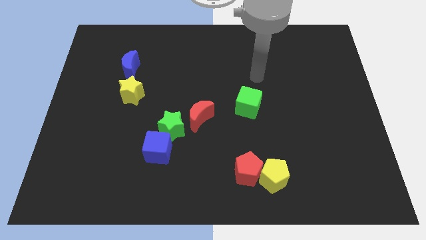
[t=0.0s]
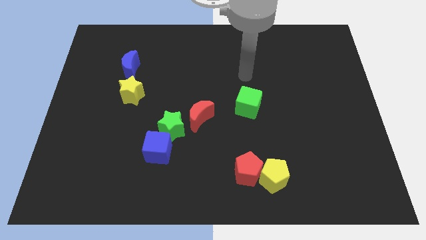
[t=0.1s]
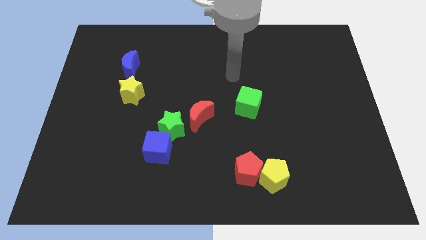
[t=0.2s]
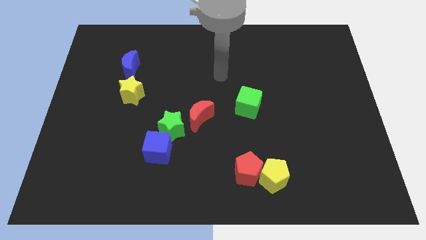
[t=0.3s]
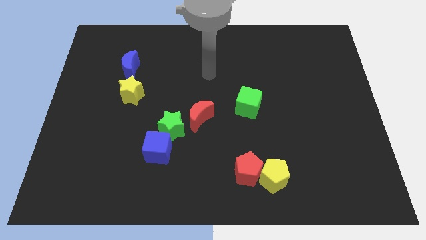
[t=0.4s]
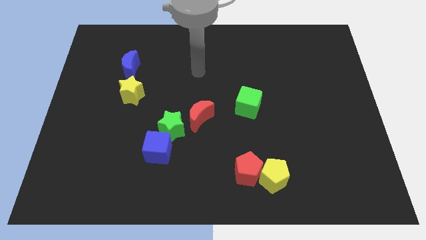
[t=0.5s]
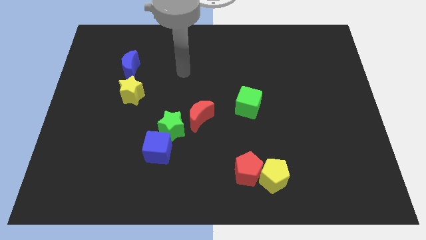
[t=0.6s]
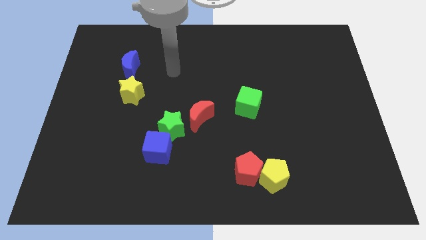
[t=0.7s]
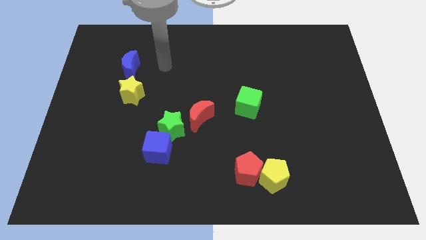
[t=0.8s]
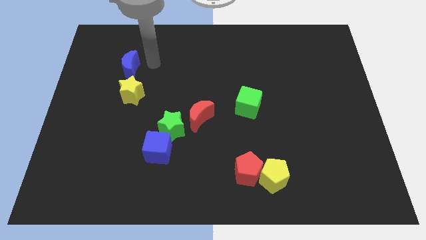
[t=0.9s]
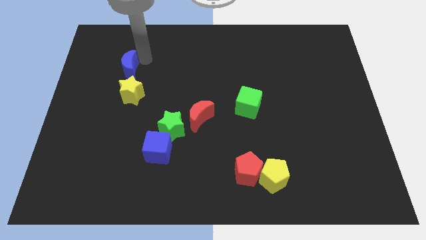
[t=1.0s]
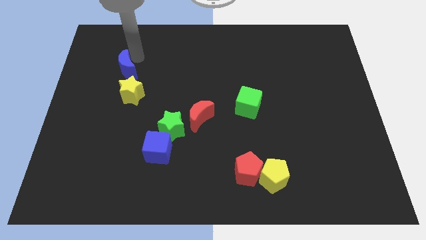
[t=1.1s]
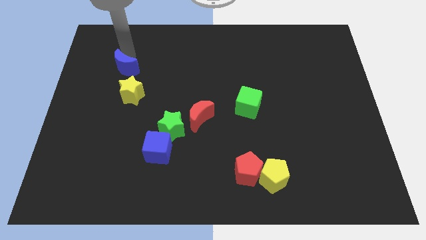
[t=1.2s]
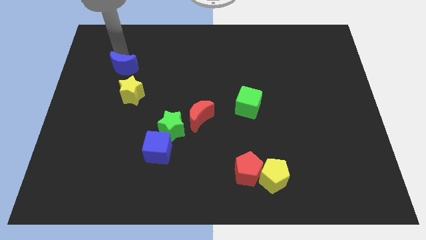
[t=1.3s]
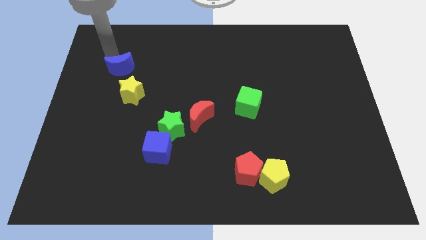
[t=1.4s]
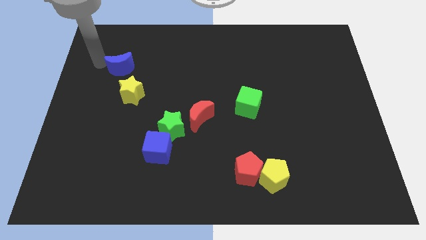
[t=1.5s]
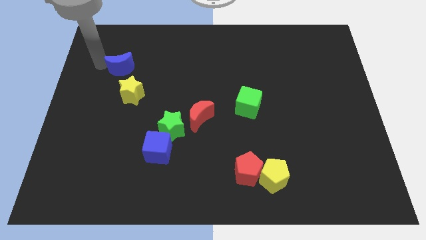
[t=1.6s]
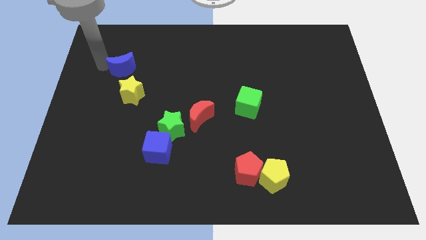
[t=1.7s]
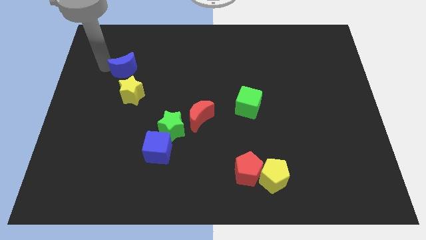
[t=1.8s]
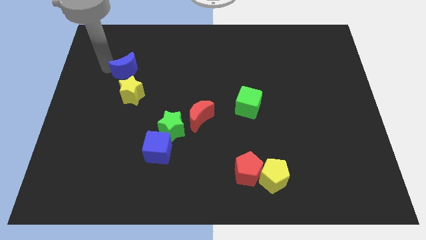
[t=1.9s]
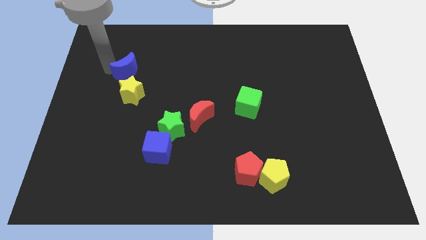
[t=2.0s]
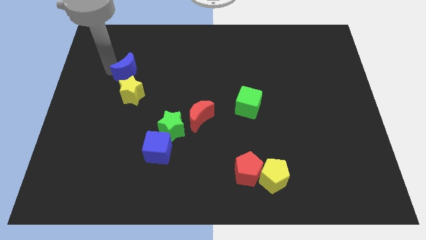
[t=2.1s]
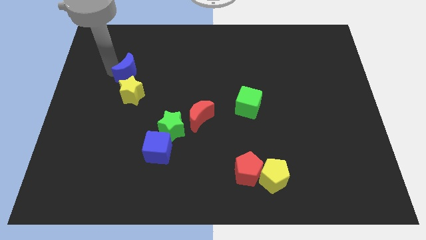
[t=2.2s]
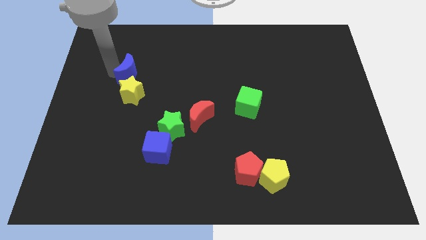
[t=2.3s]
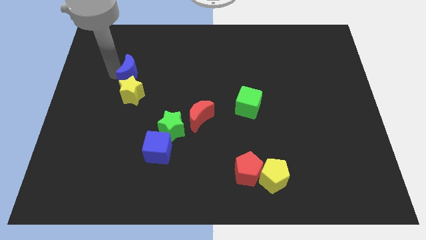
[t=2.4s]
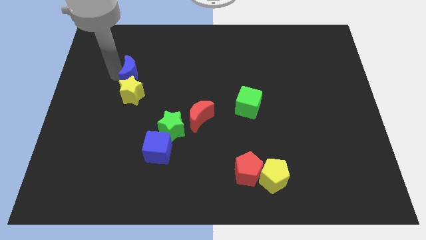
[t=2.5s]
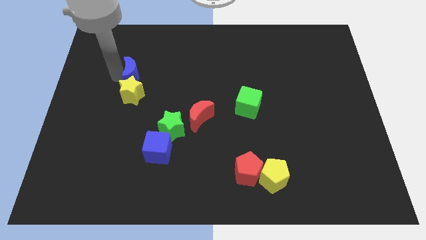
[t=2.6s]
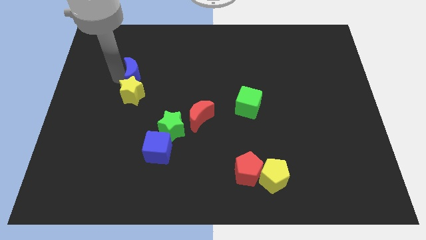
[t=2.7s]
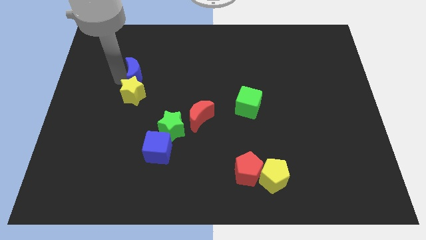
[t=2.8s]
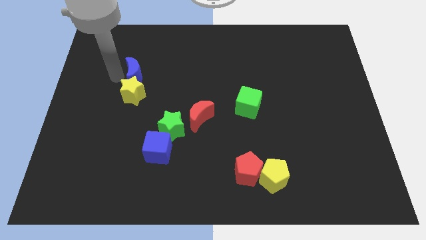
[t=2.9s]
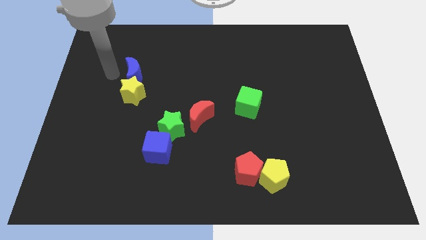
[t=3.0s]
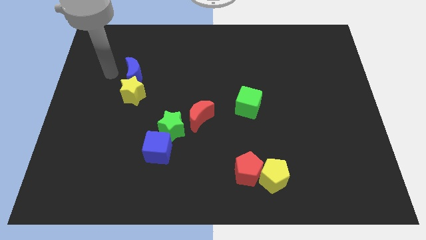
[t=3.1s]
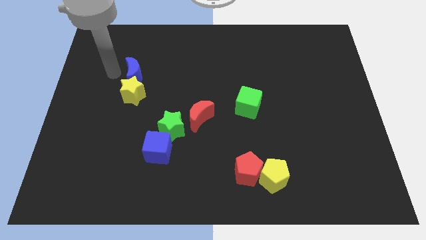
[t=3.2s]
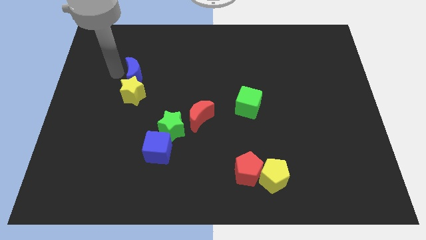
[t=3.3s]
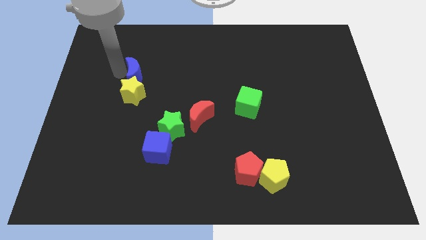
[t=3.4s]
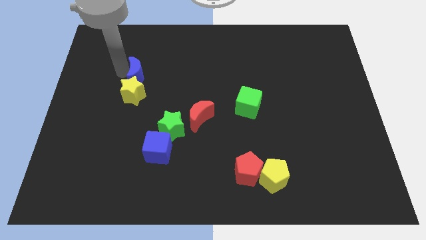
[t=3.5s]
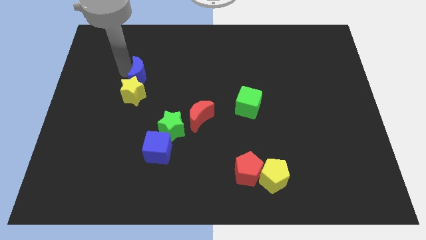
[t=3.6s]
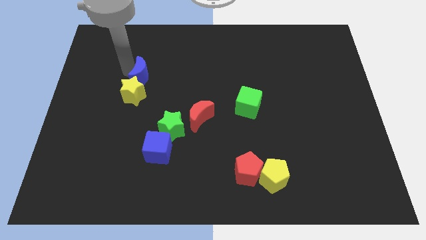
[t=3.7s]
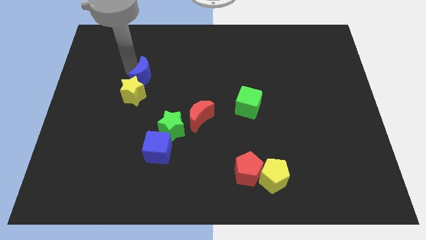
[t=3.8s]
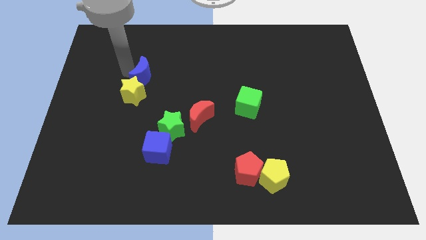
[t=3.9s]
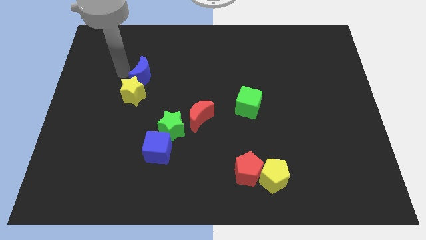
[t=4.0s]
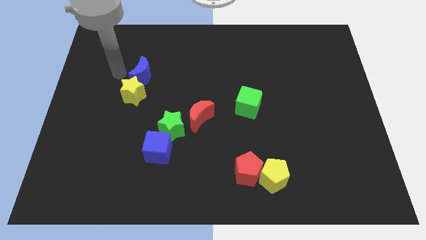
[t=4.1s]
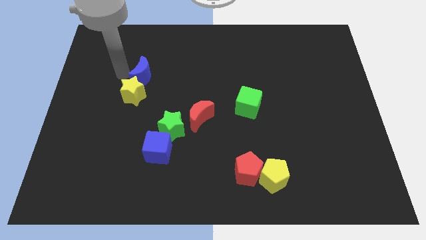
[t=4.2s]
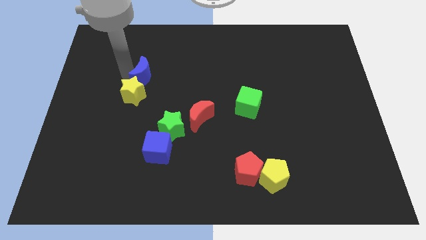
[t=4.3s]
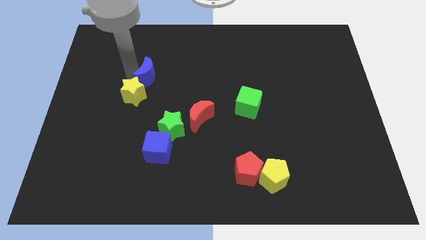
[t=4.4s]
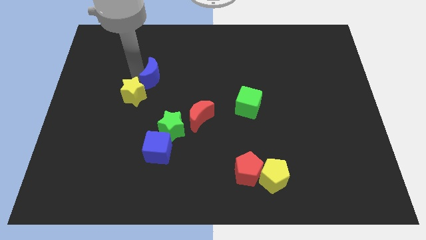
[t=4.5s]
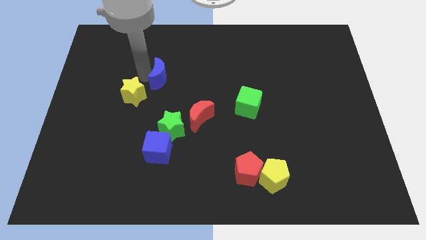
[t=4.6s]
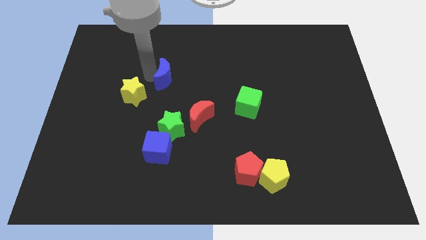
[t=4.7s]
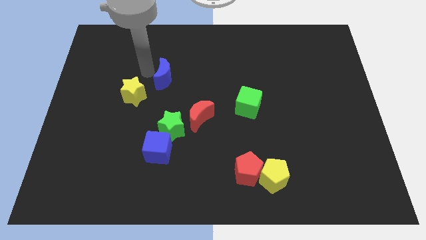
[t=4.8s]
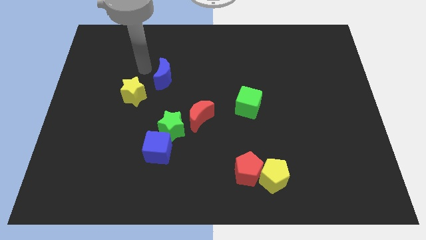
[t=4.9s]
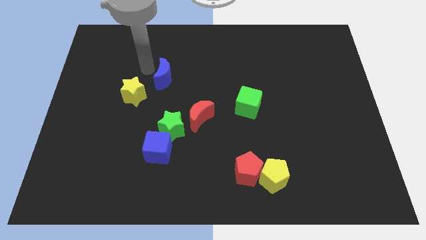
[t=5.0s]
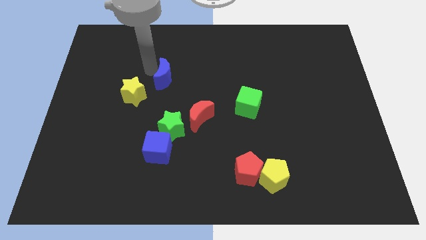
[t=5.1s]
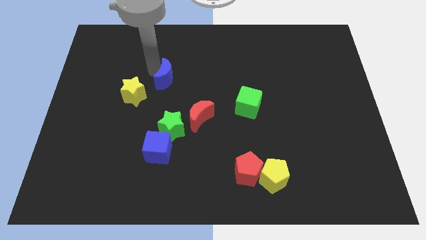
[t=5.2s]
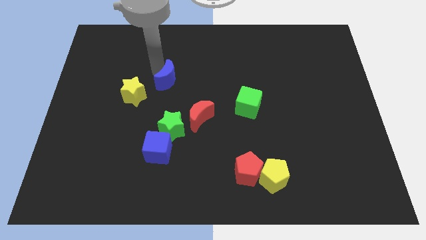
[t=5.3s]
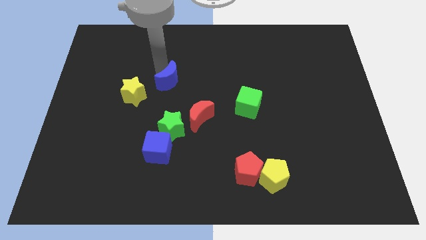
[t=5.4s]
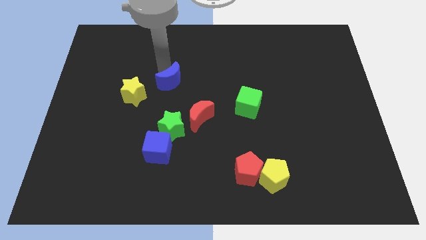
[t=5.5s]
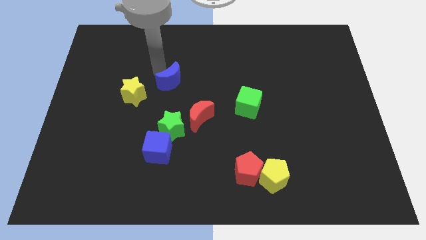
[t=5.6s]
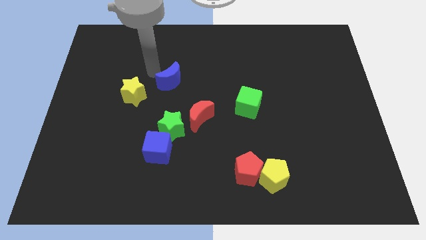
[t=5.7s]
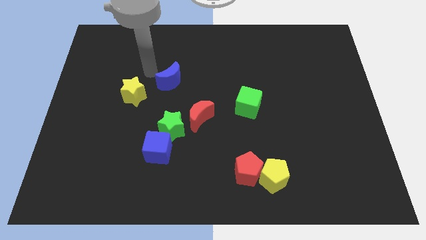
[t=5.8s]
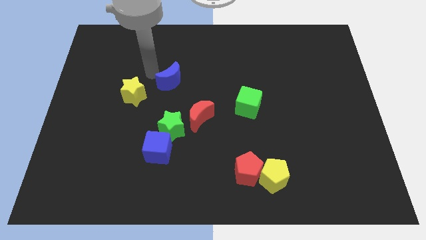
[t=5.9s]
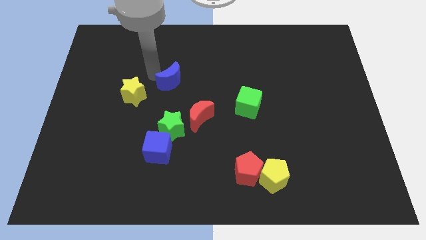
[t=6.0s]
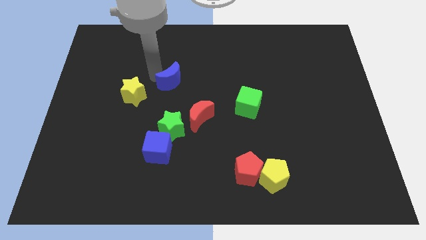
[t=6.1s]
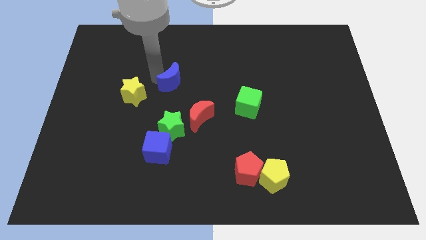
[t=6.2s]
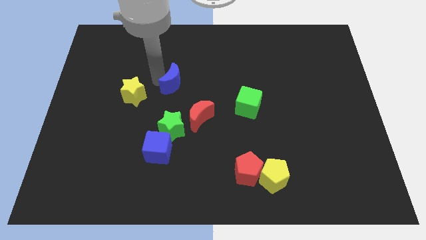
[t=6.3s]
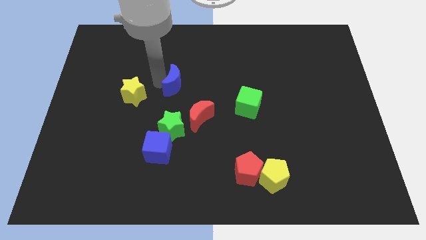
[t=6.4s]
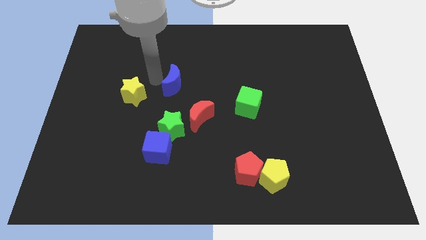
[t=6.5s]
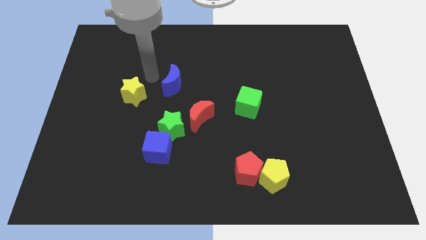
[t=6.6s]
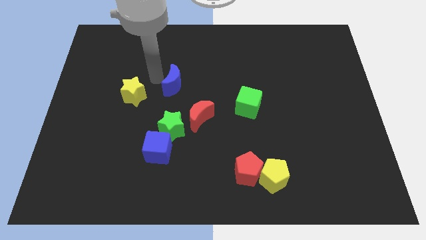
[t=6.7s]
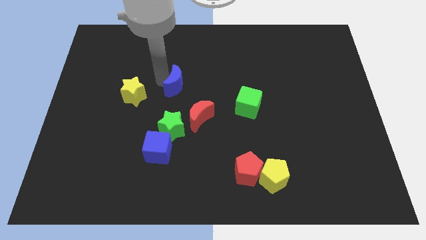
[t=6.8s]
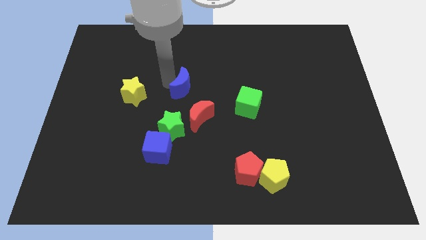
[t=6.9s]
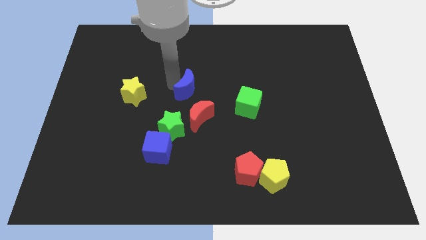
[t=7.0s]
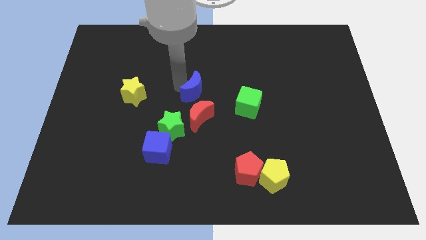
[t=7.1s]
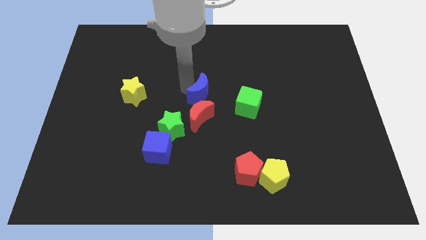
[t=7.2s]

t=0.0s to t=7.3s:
move the blue moon to the top right side of the green star
